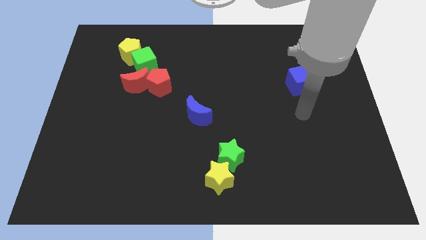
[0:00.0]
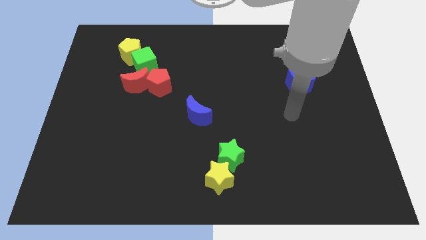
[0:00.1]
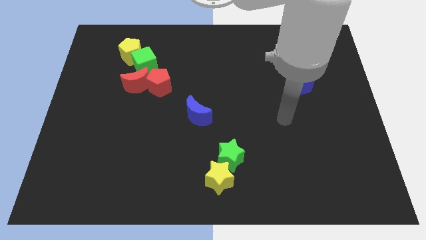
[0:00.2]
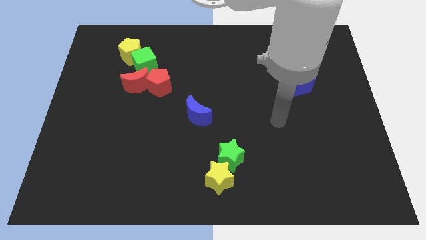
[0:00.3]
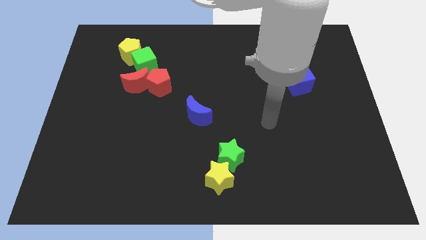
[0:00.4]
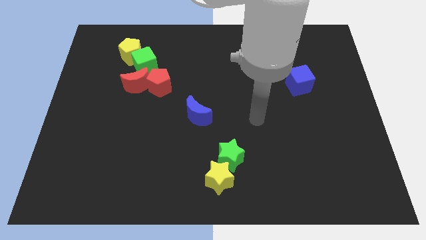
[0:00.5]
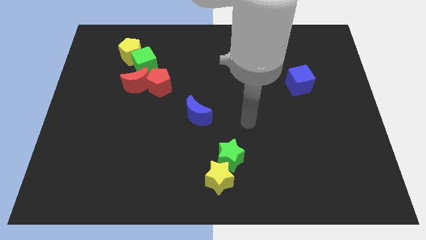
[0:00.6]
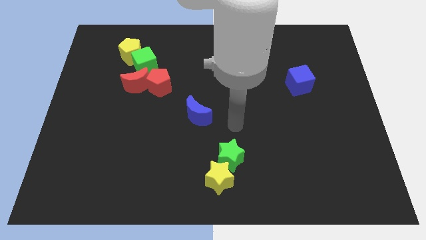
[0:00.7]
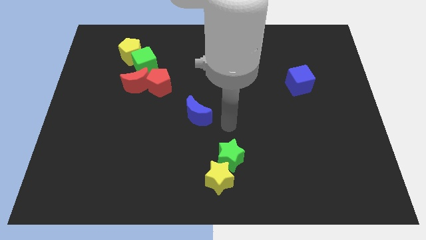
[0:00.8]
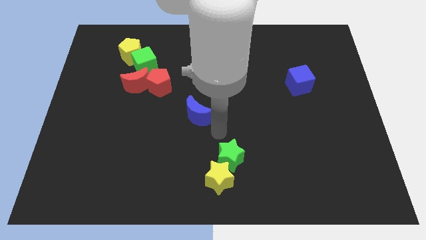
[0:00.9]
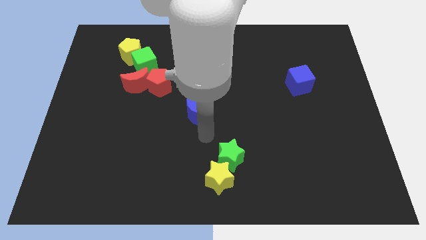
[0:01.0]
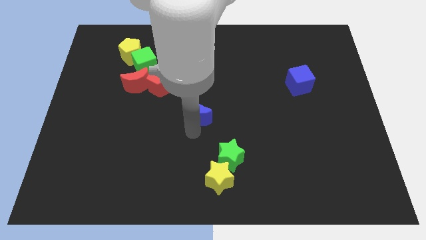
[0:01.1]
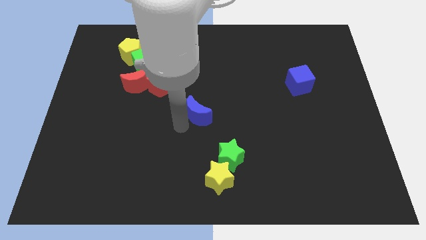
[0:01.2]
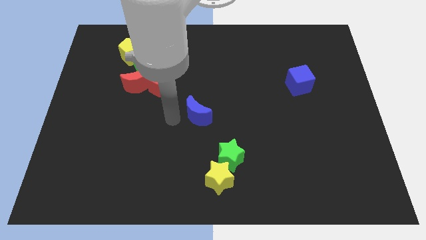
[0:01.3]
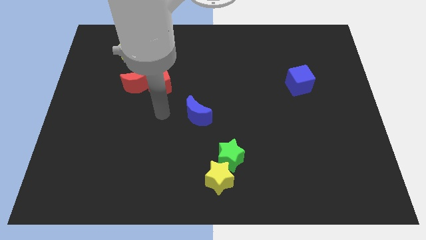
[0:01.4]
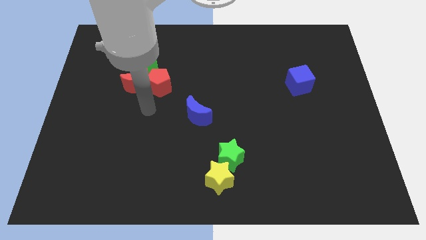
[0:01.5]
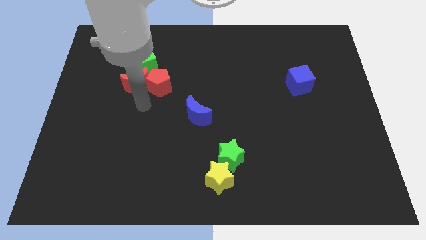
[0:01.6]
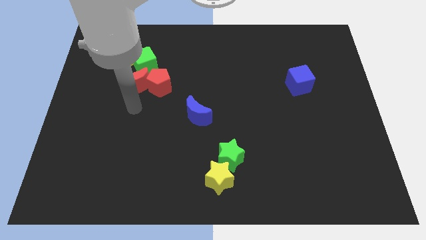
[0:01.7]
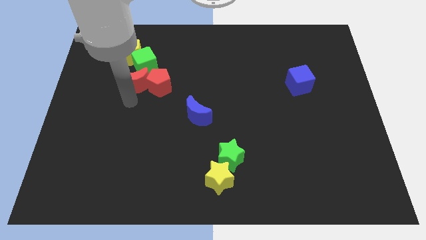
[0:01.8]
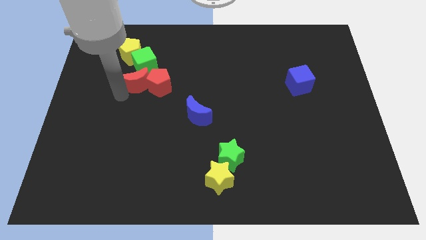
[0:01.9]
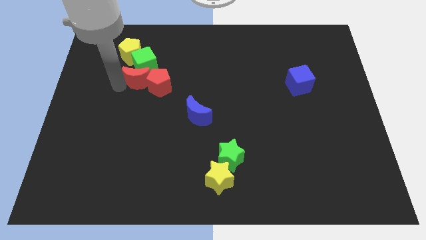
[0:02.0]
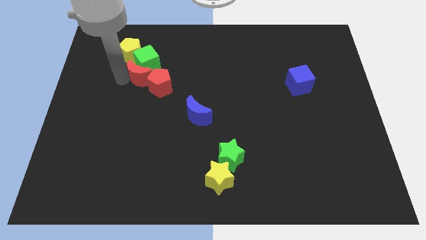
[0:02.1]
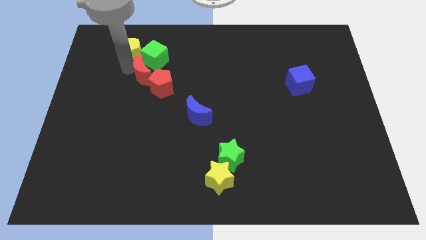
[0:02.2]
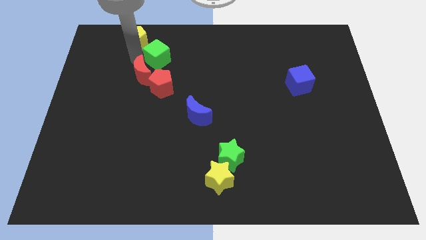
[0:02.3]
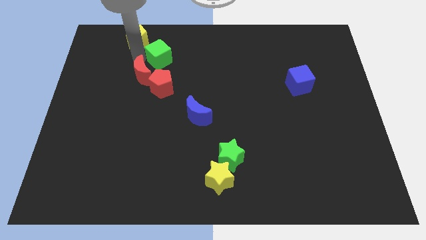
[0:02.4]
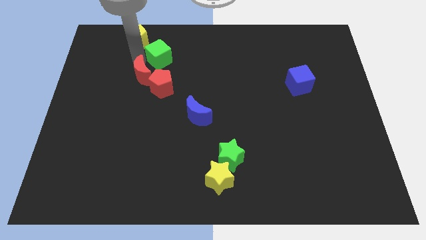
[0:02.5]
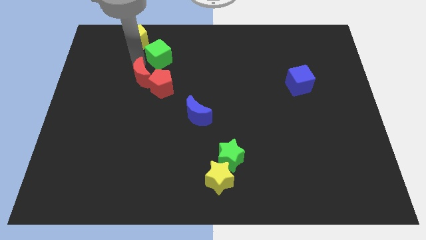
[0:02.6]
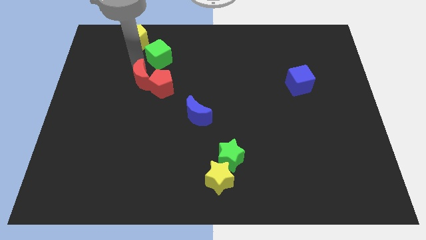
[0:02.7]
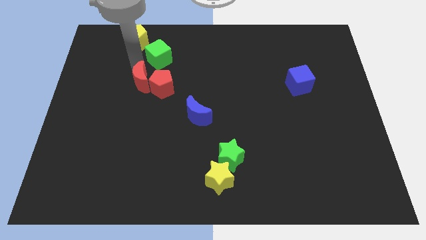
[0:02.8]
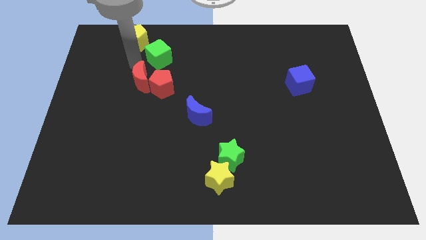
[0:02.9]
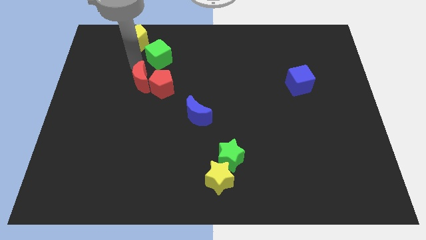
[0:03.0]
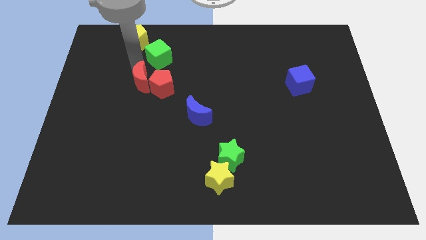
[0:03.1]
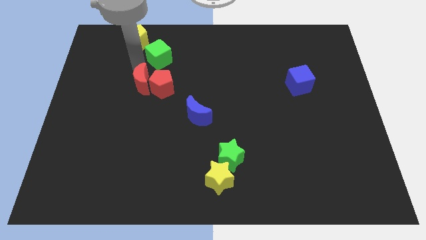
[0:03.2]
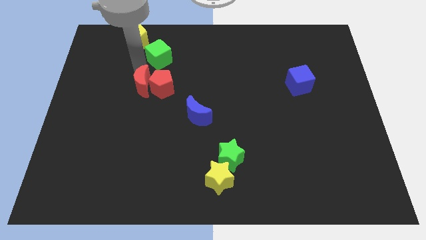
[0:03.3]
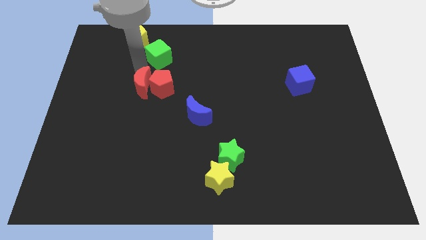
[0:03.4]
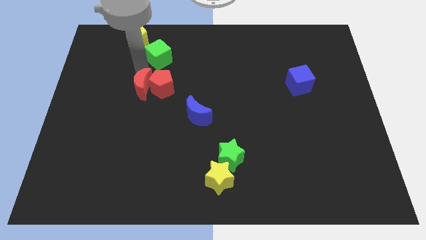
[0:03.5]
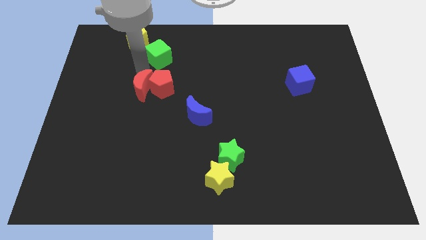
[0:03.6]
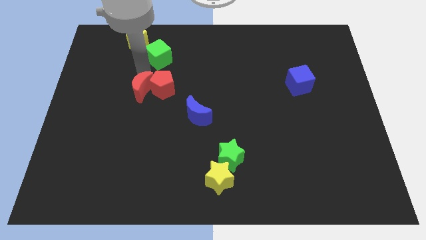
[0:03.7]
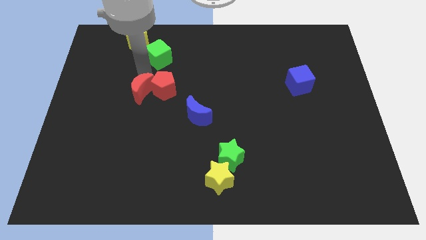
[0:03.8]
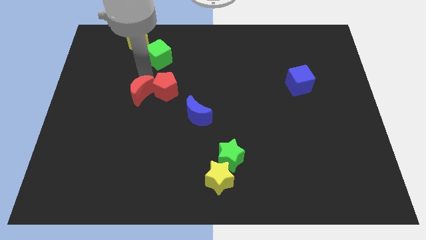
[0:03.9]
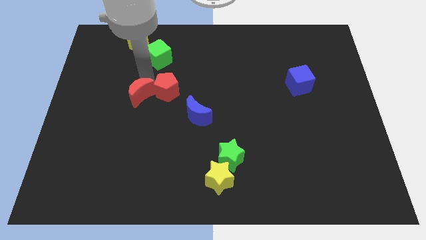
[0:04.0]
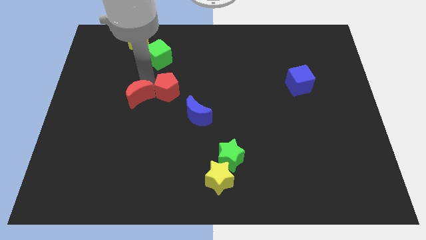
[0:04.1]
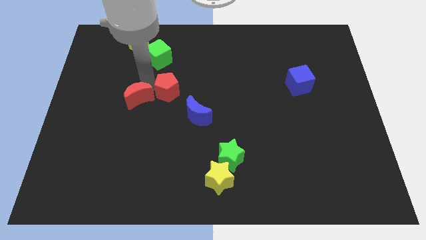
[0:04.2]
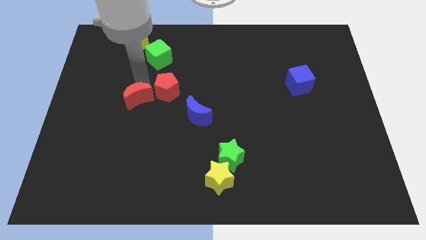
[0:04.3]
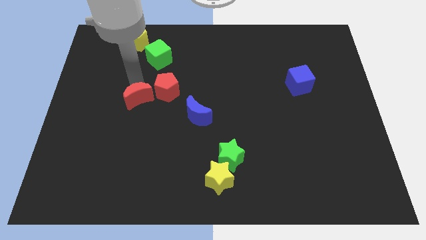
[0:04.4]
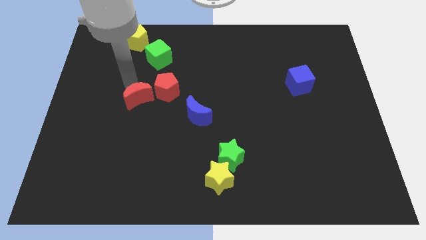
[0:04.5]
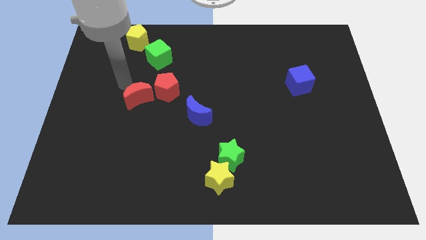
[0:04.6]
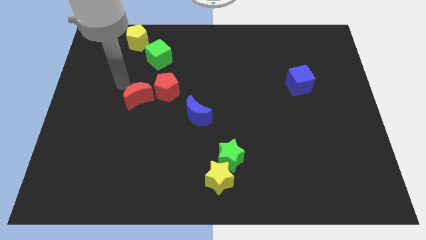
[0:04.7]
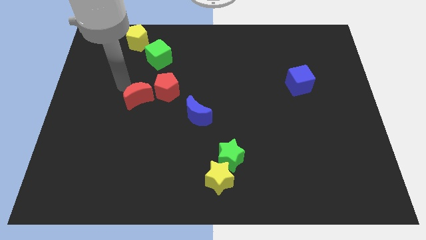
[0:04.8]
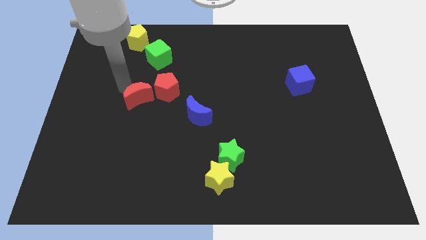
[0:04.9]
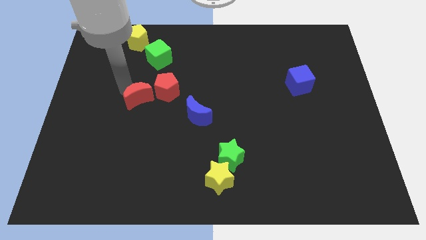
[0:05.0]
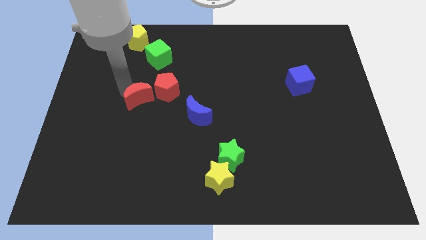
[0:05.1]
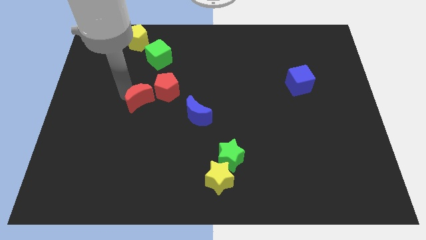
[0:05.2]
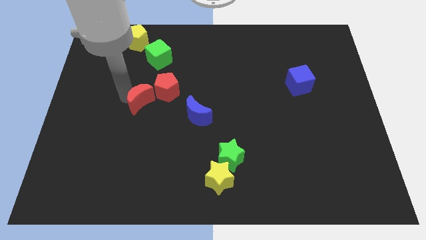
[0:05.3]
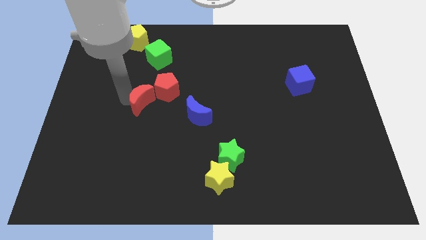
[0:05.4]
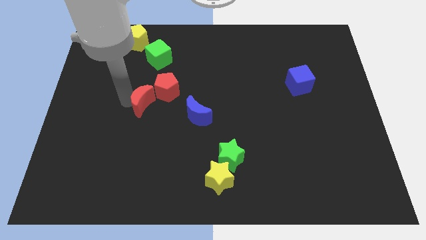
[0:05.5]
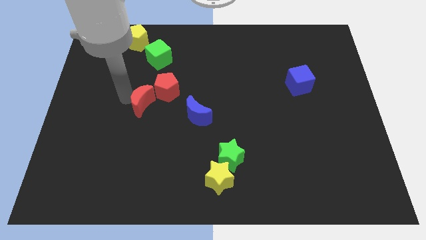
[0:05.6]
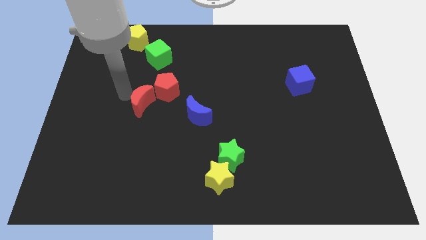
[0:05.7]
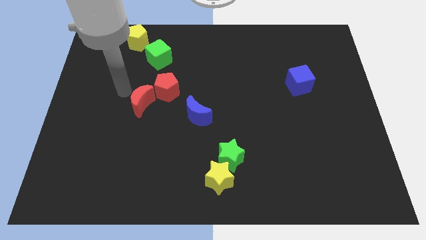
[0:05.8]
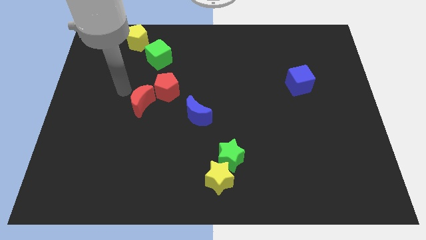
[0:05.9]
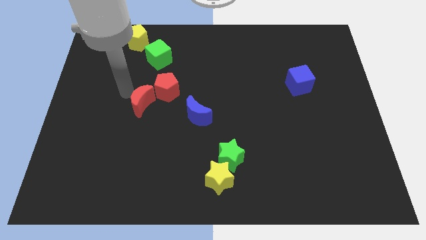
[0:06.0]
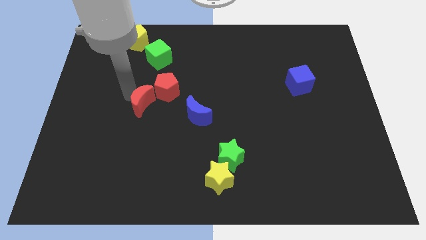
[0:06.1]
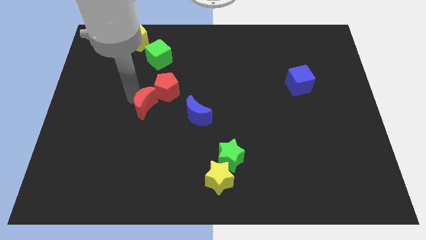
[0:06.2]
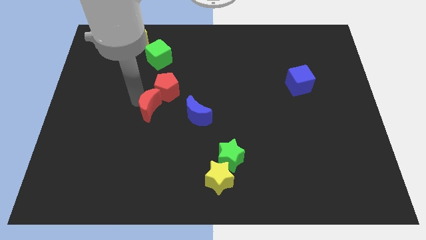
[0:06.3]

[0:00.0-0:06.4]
slightly slide the red moon diagonally downwards and right

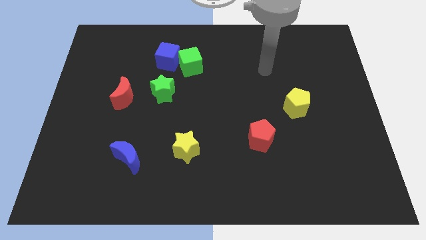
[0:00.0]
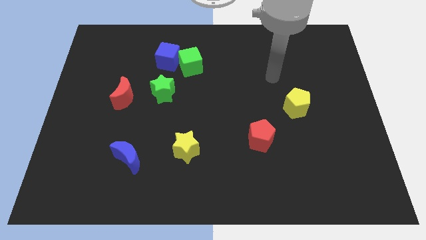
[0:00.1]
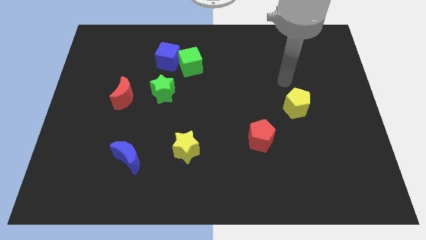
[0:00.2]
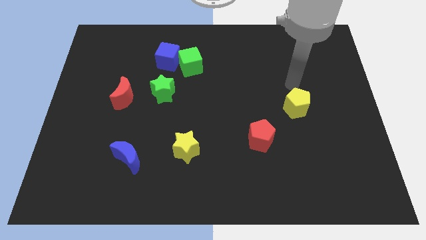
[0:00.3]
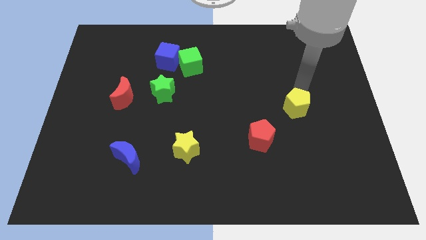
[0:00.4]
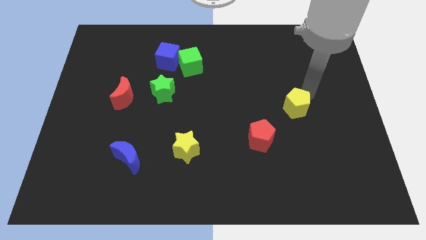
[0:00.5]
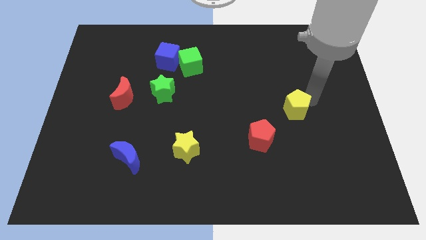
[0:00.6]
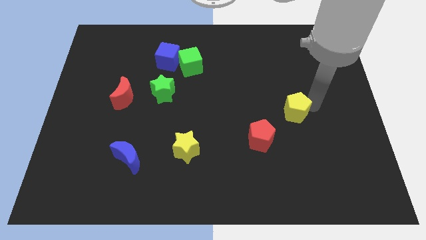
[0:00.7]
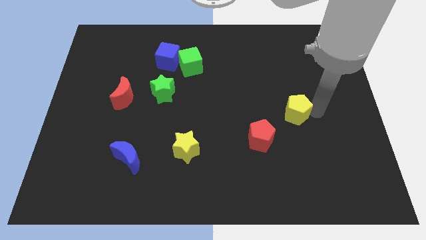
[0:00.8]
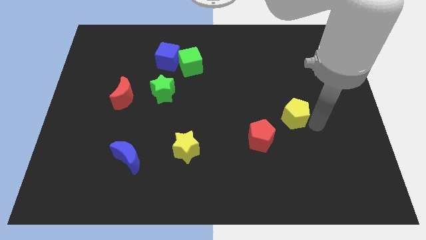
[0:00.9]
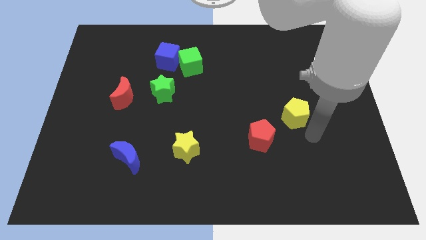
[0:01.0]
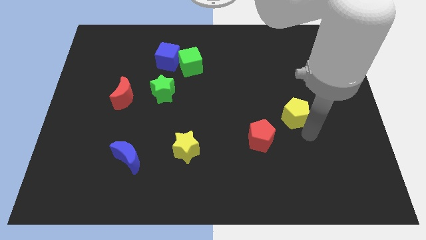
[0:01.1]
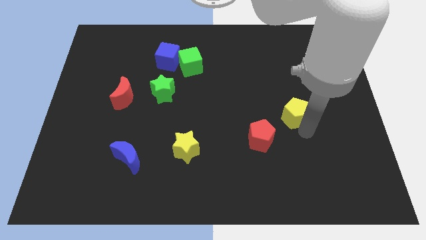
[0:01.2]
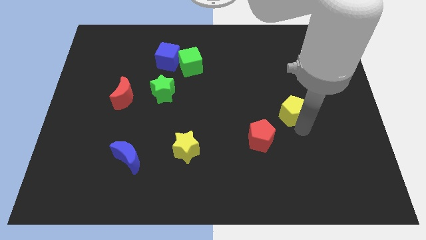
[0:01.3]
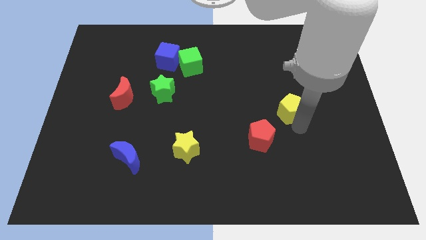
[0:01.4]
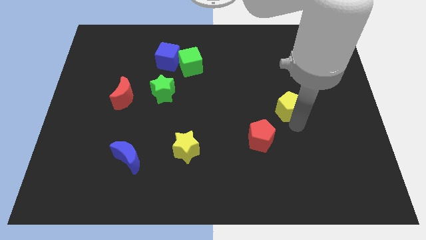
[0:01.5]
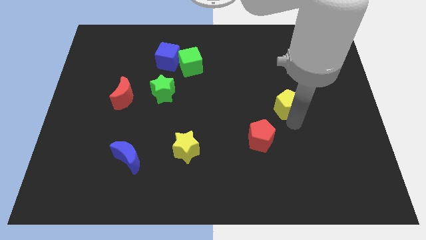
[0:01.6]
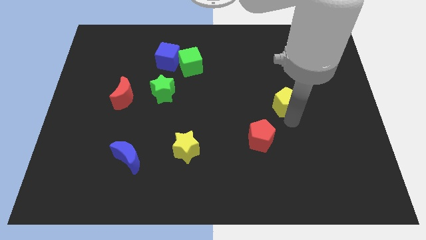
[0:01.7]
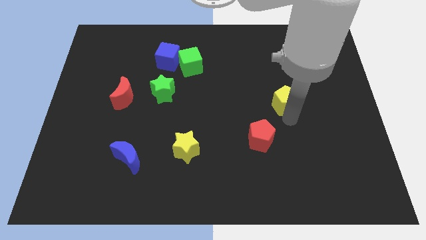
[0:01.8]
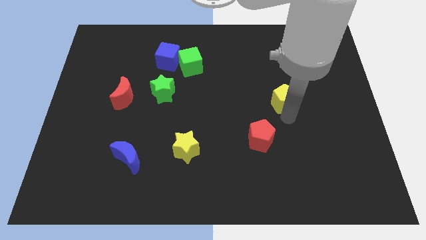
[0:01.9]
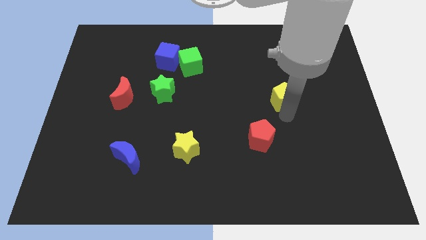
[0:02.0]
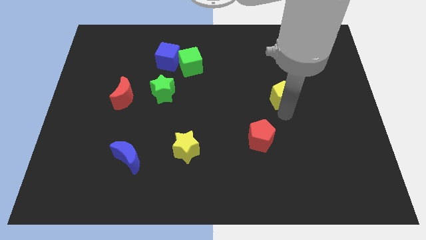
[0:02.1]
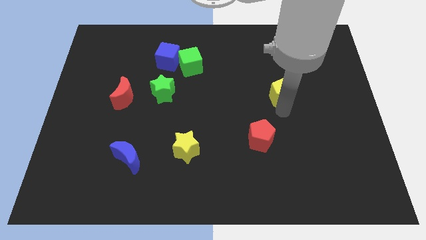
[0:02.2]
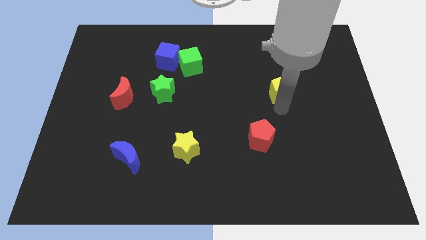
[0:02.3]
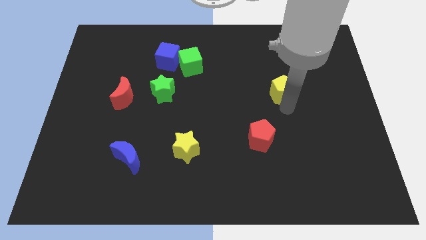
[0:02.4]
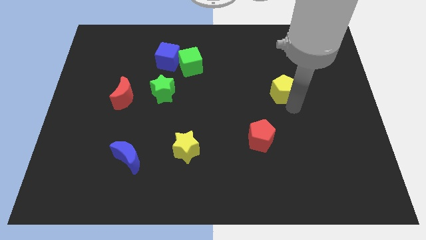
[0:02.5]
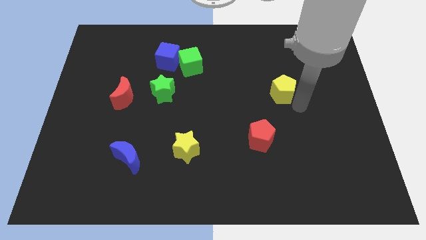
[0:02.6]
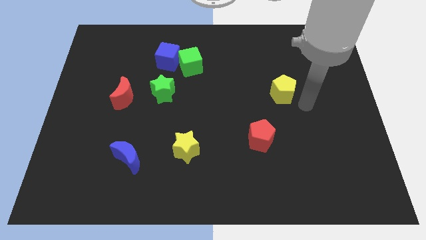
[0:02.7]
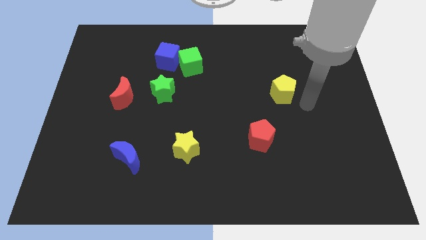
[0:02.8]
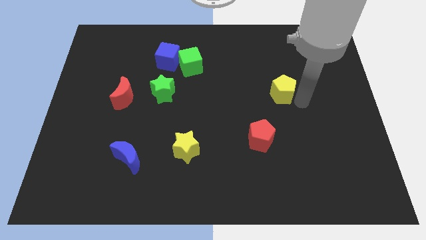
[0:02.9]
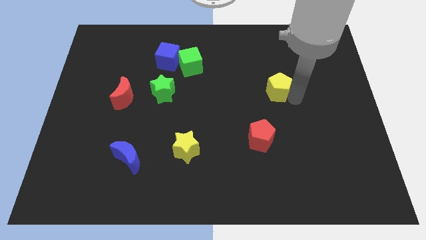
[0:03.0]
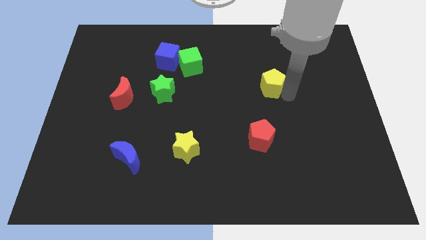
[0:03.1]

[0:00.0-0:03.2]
slide the yellow pentagon a bit diagonally upwards and left
